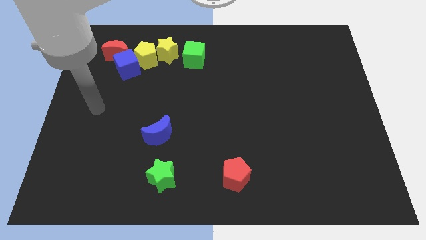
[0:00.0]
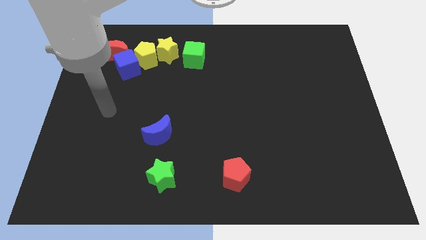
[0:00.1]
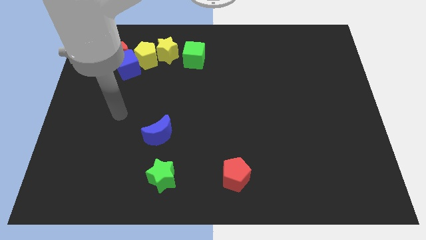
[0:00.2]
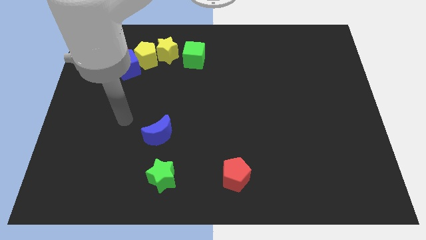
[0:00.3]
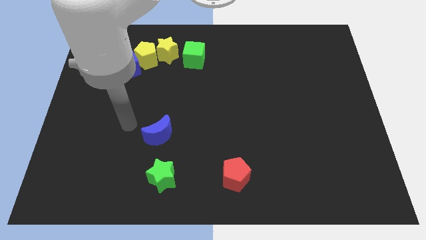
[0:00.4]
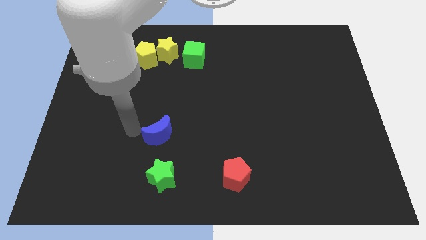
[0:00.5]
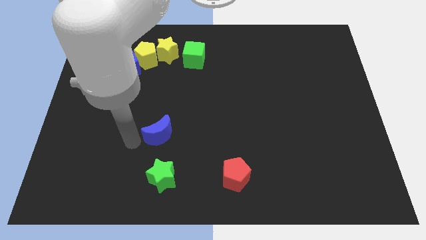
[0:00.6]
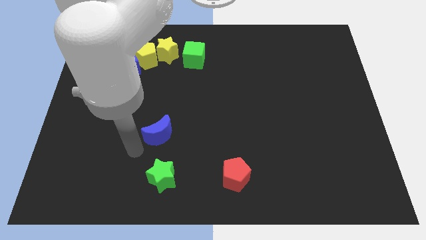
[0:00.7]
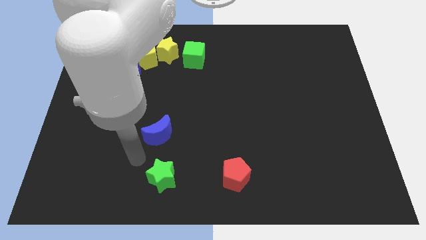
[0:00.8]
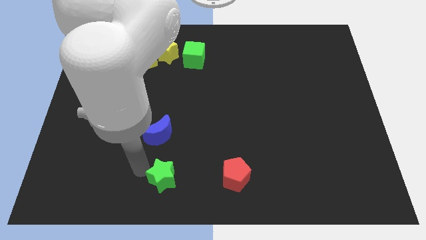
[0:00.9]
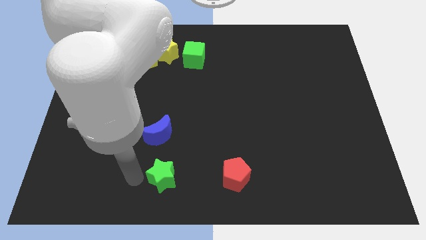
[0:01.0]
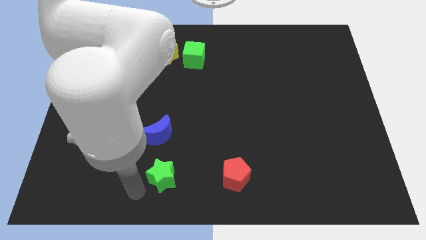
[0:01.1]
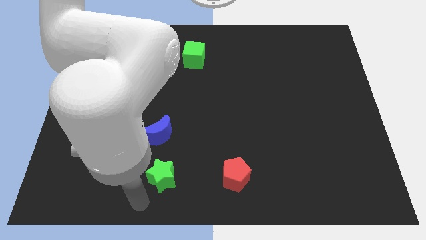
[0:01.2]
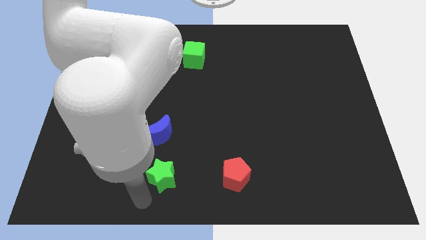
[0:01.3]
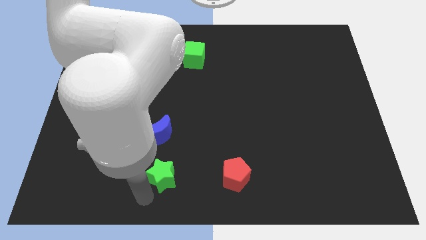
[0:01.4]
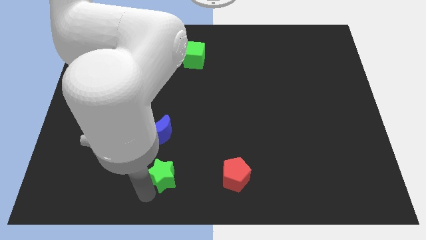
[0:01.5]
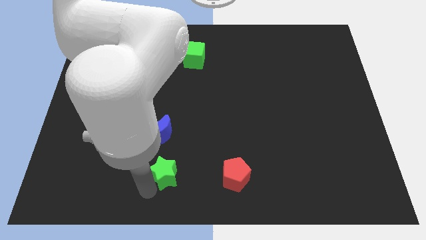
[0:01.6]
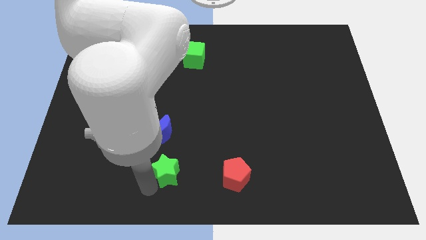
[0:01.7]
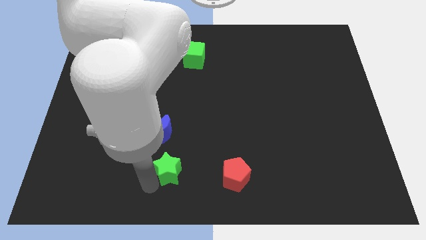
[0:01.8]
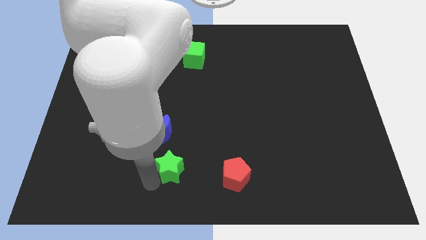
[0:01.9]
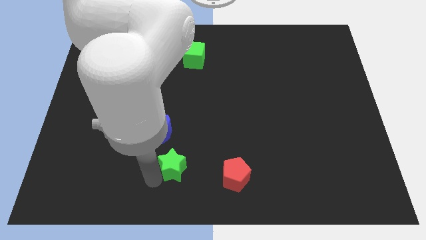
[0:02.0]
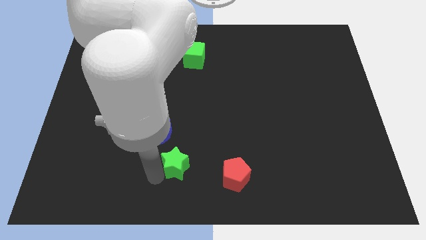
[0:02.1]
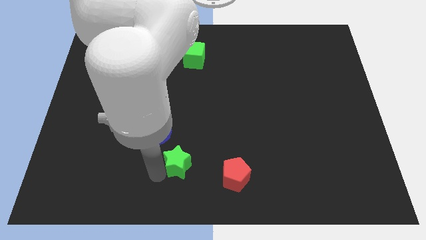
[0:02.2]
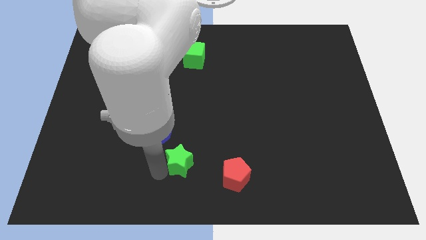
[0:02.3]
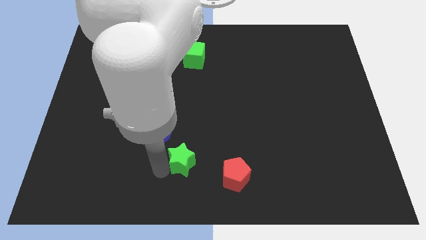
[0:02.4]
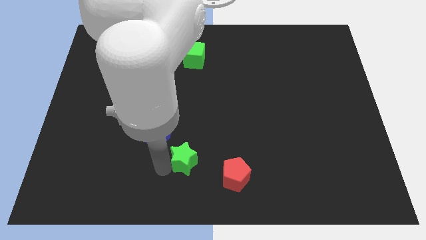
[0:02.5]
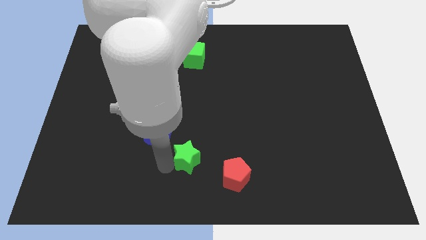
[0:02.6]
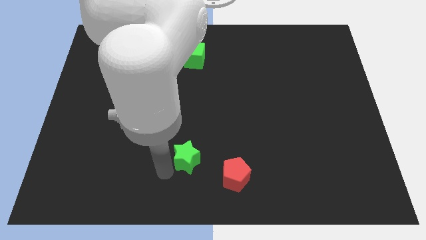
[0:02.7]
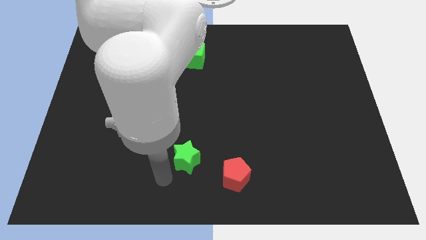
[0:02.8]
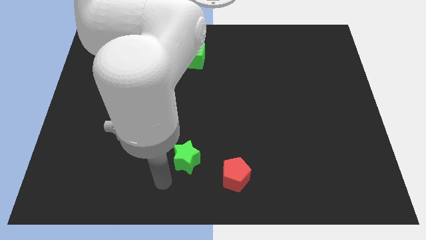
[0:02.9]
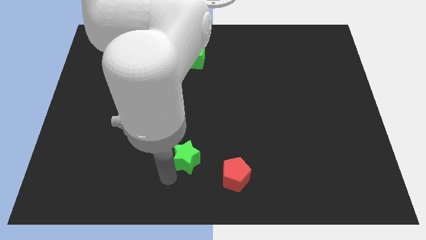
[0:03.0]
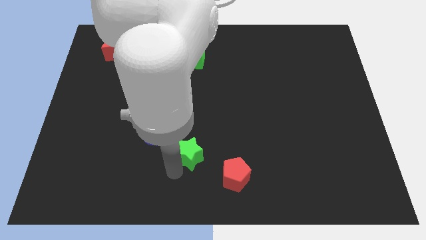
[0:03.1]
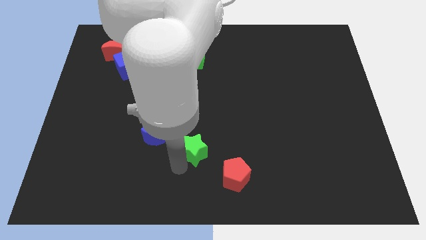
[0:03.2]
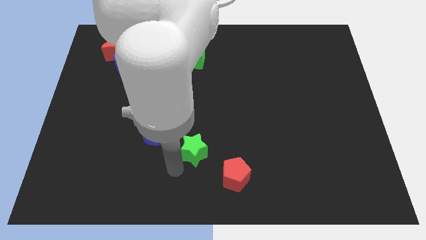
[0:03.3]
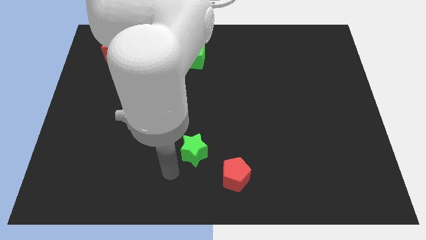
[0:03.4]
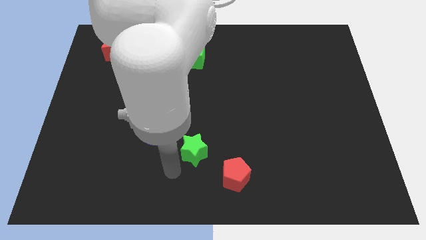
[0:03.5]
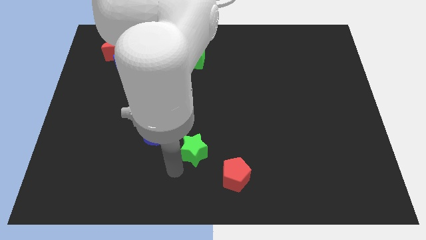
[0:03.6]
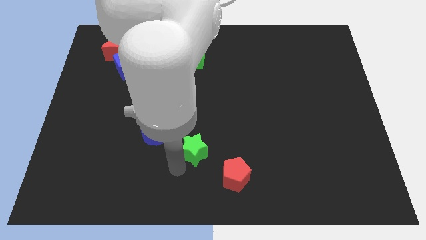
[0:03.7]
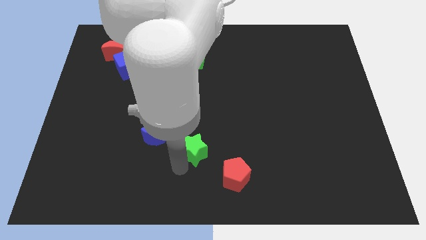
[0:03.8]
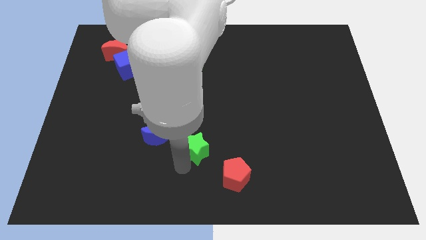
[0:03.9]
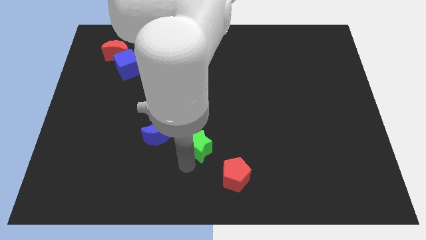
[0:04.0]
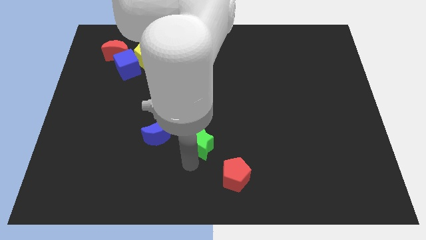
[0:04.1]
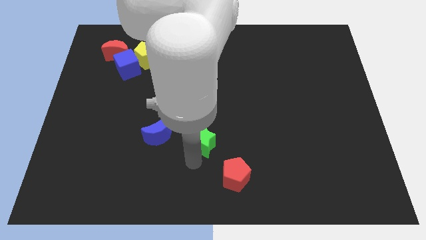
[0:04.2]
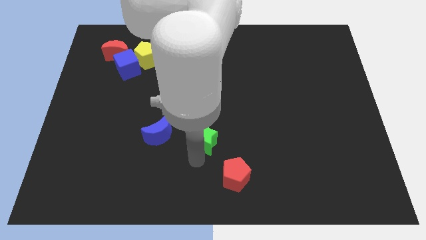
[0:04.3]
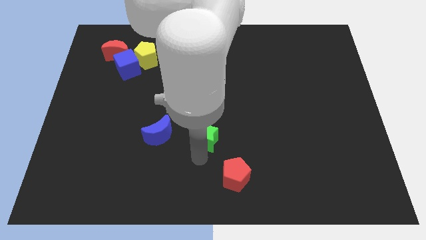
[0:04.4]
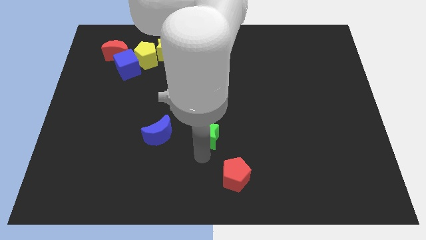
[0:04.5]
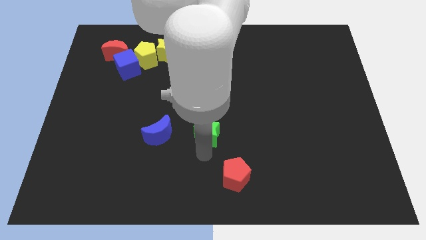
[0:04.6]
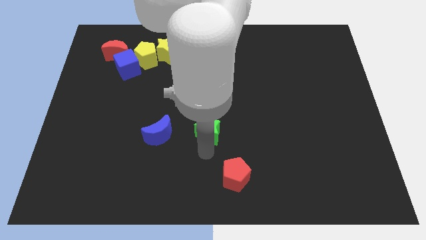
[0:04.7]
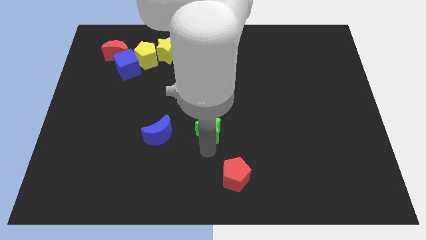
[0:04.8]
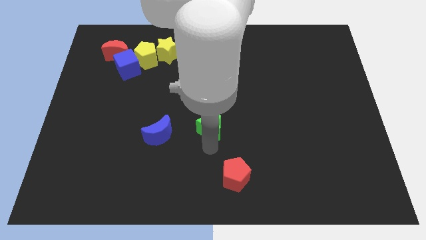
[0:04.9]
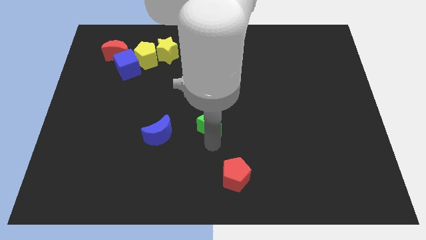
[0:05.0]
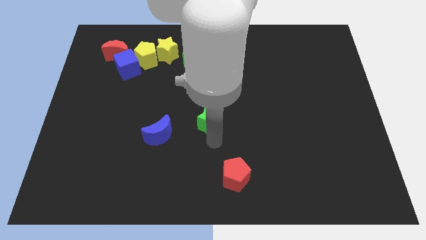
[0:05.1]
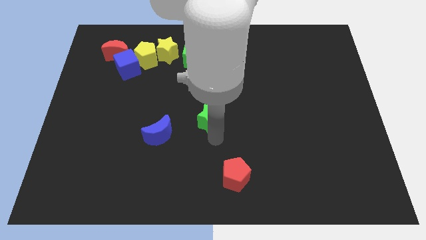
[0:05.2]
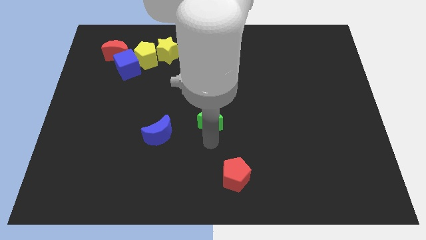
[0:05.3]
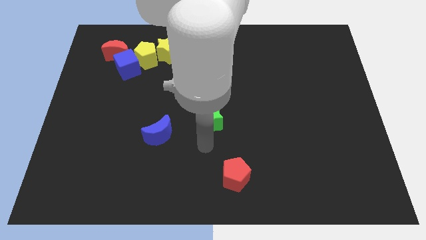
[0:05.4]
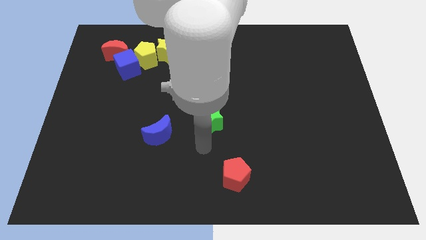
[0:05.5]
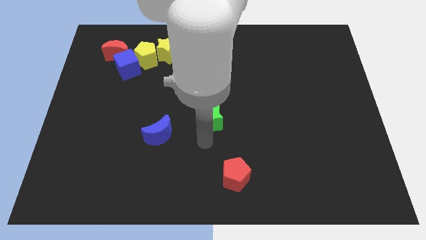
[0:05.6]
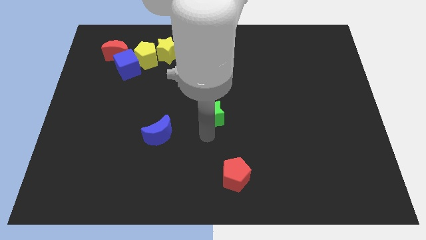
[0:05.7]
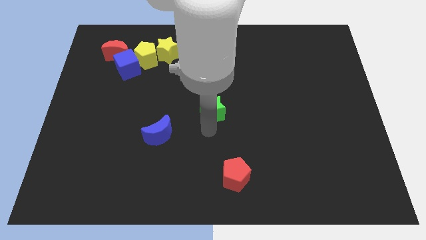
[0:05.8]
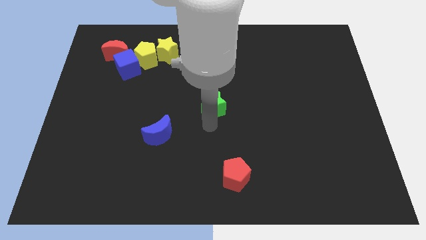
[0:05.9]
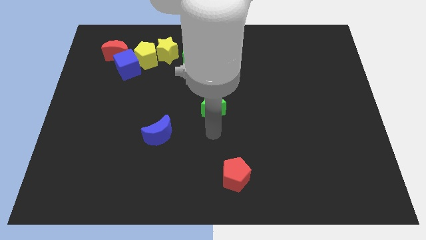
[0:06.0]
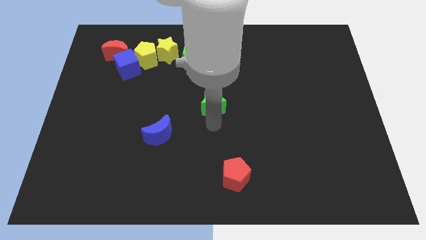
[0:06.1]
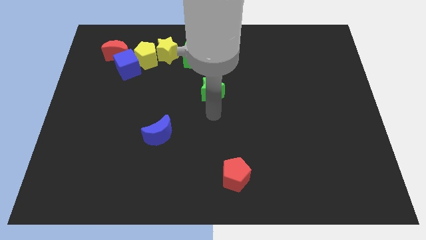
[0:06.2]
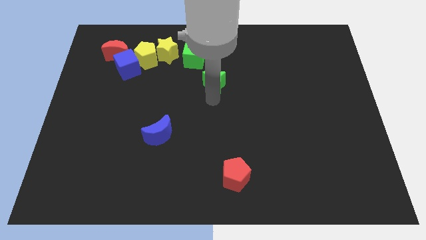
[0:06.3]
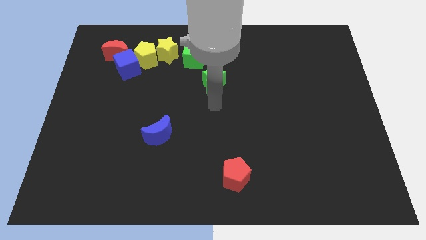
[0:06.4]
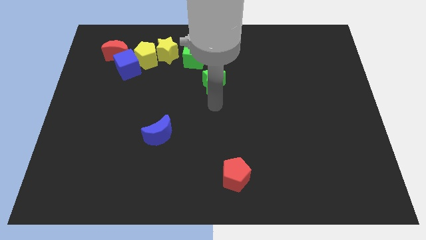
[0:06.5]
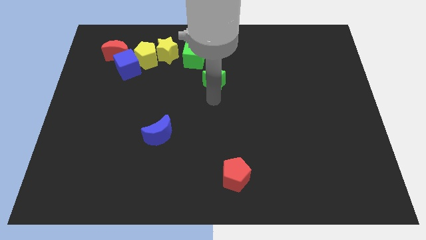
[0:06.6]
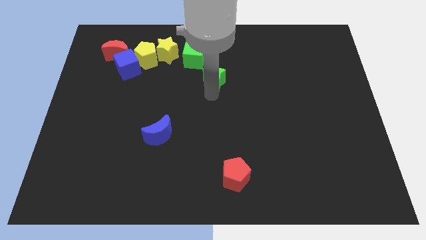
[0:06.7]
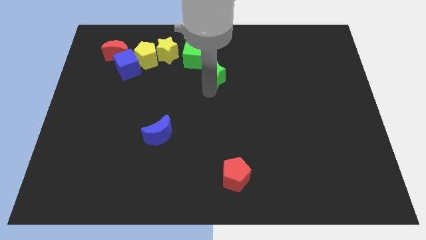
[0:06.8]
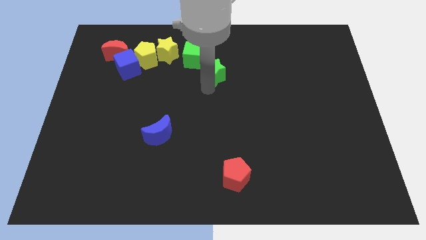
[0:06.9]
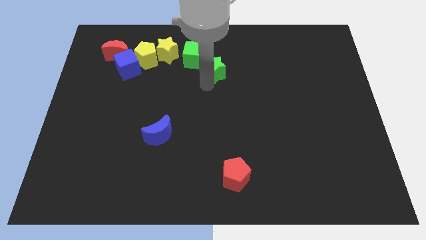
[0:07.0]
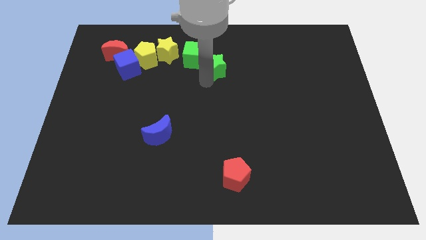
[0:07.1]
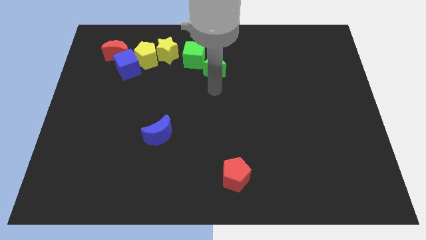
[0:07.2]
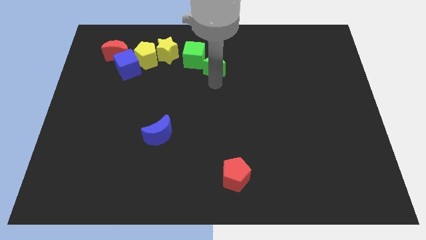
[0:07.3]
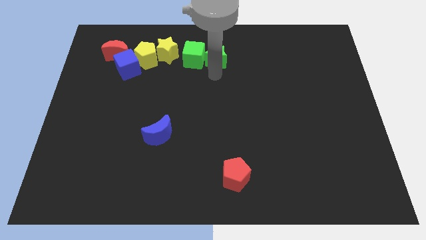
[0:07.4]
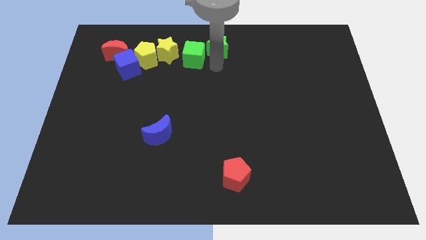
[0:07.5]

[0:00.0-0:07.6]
slide the green star to the towards your base
